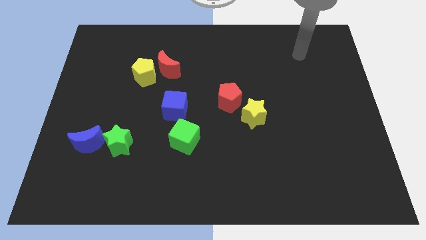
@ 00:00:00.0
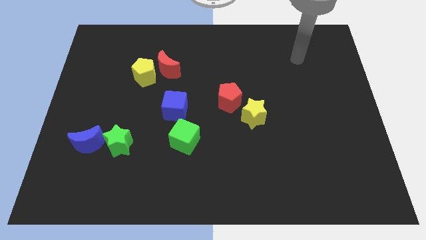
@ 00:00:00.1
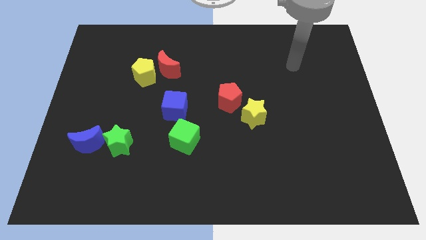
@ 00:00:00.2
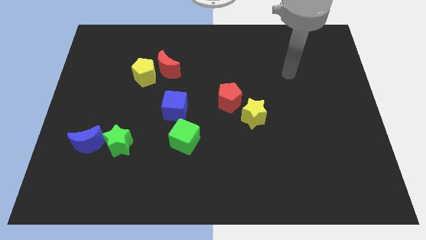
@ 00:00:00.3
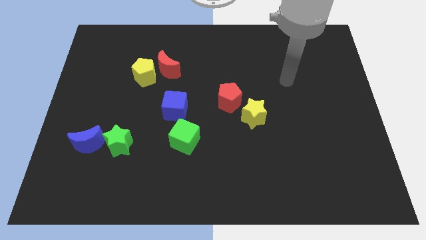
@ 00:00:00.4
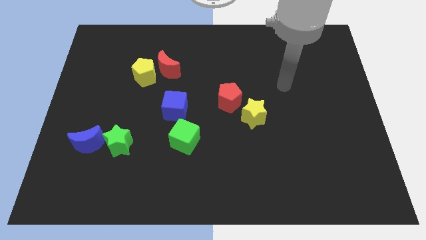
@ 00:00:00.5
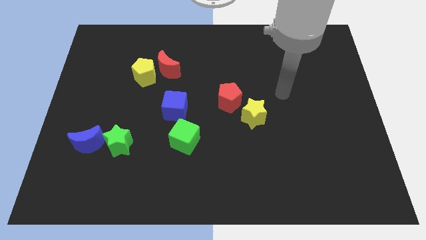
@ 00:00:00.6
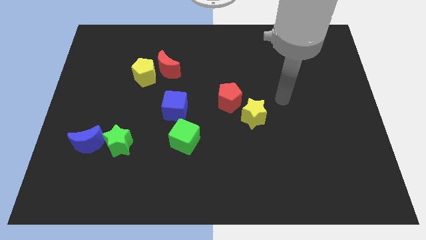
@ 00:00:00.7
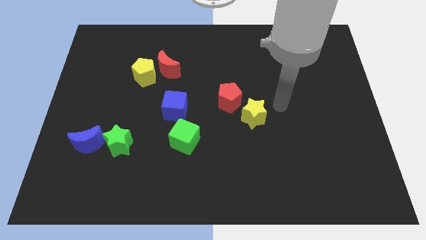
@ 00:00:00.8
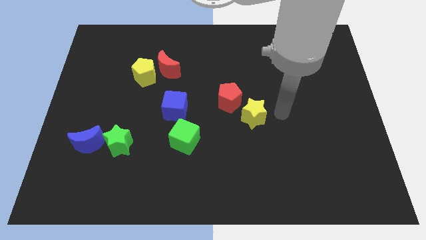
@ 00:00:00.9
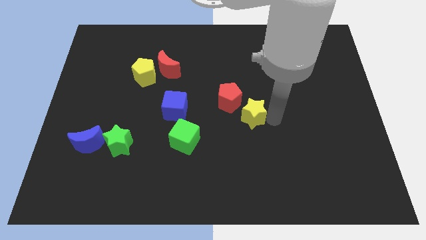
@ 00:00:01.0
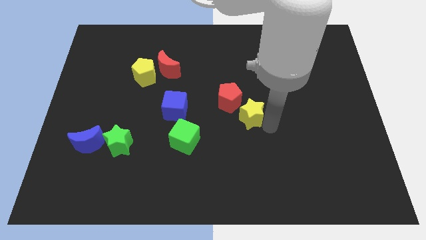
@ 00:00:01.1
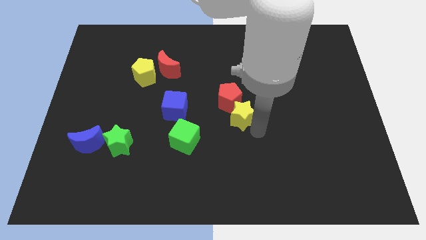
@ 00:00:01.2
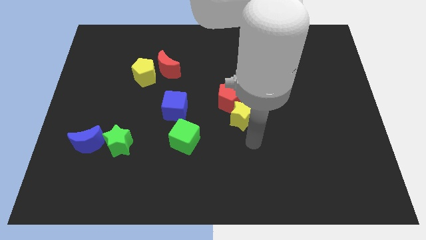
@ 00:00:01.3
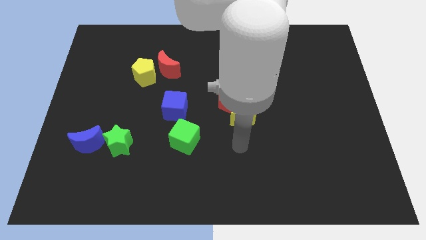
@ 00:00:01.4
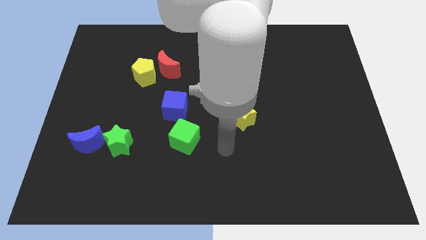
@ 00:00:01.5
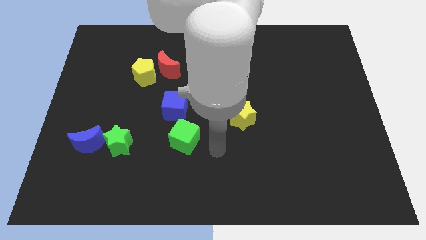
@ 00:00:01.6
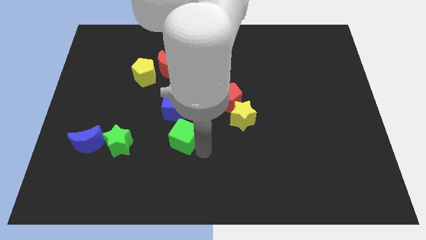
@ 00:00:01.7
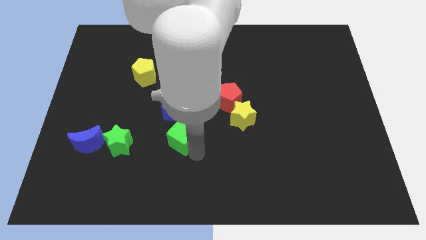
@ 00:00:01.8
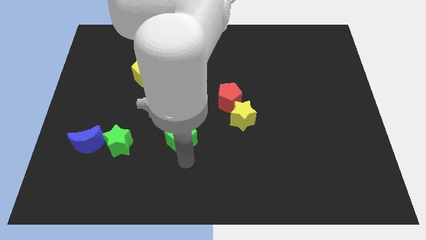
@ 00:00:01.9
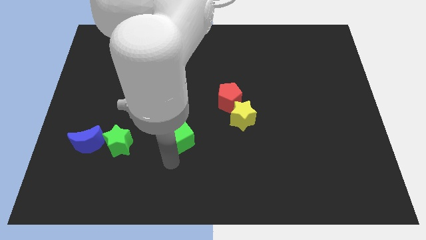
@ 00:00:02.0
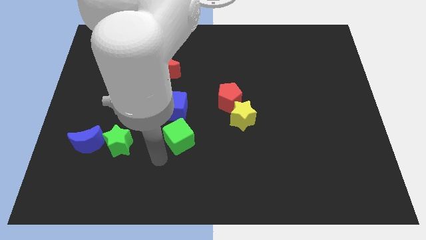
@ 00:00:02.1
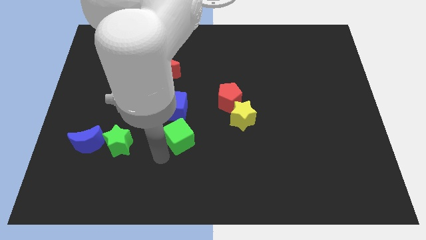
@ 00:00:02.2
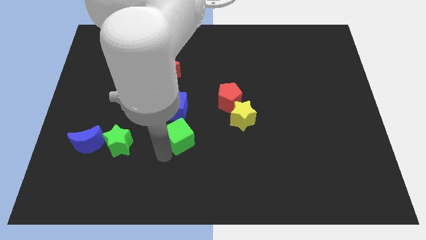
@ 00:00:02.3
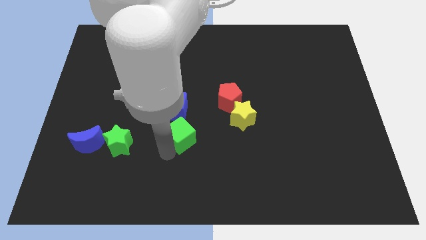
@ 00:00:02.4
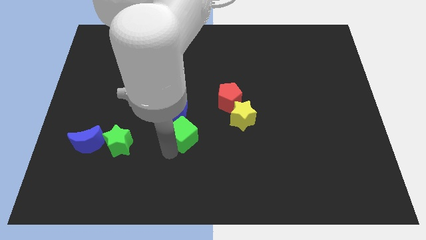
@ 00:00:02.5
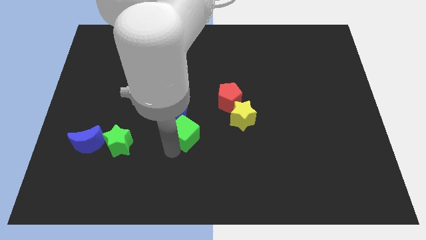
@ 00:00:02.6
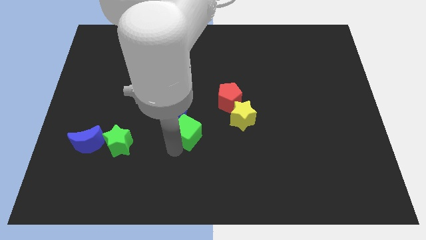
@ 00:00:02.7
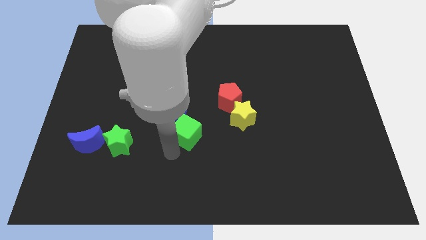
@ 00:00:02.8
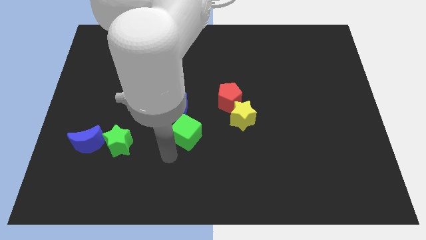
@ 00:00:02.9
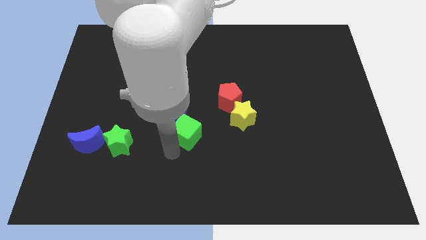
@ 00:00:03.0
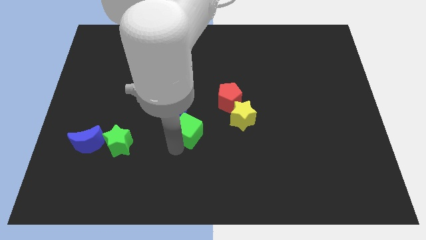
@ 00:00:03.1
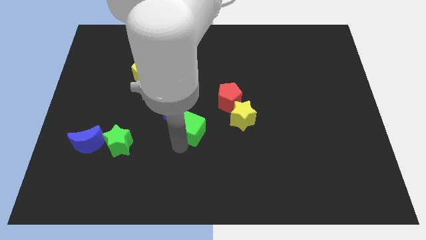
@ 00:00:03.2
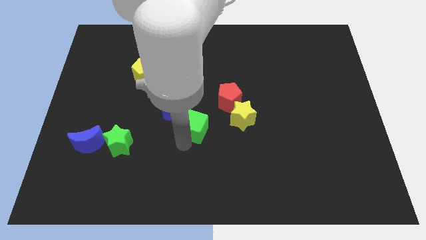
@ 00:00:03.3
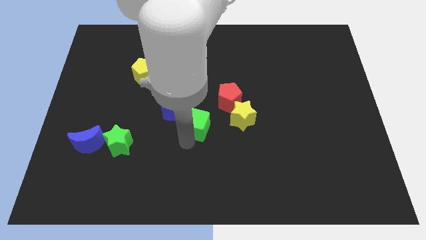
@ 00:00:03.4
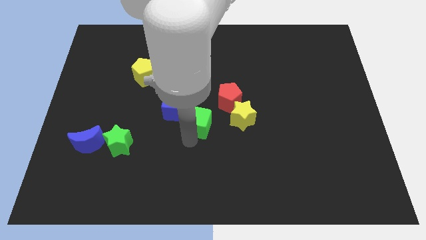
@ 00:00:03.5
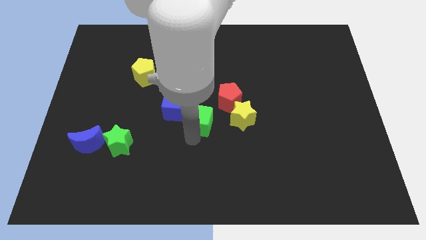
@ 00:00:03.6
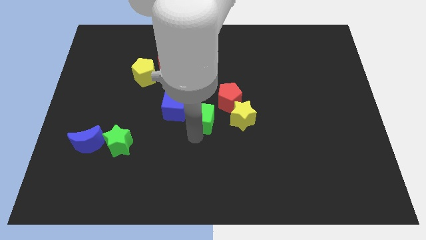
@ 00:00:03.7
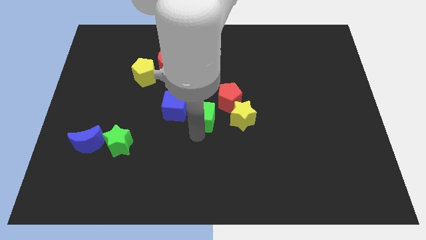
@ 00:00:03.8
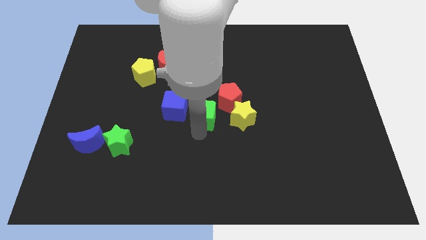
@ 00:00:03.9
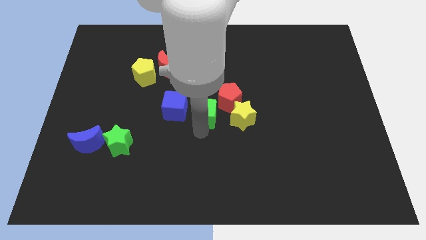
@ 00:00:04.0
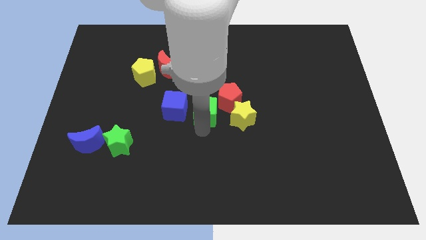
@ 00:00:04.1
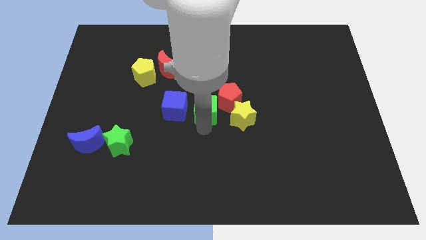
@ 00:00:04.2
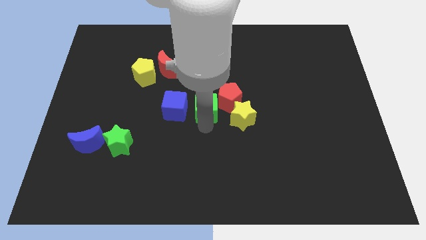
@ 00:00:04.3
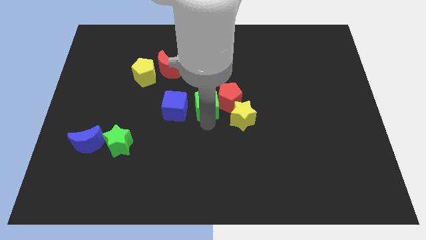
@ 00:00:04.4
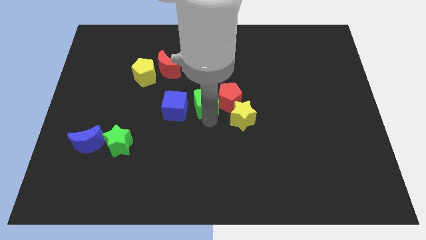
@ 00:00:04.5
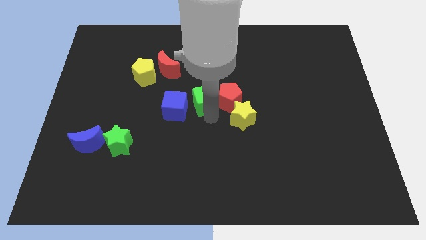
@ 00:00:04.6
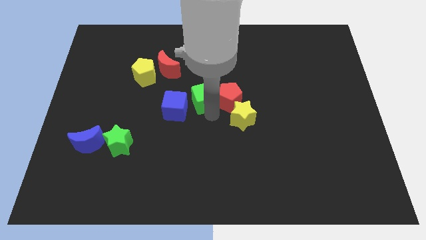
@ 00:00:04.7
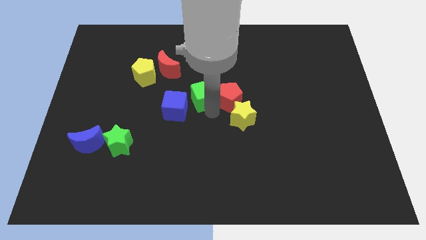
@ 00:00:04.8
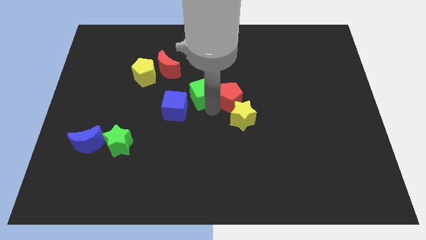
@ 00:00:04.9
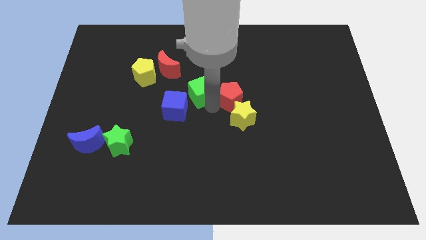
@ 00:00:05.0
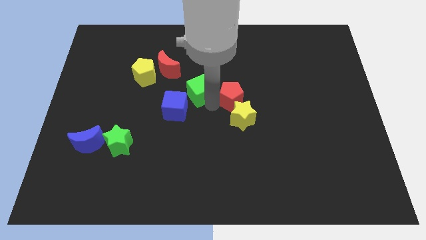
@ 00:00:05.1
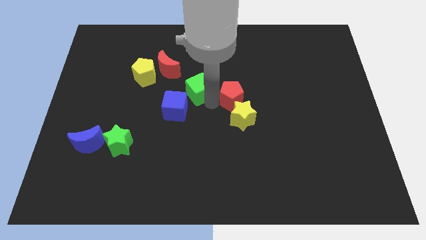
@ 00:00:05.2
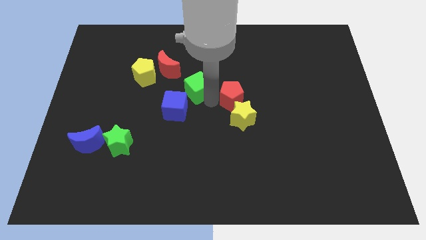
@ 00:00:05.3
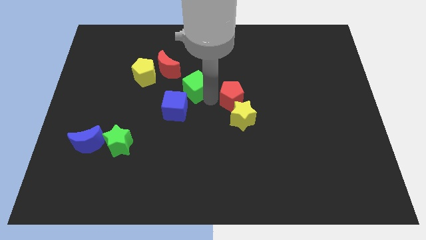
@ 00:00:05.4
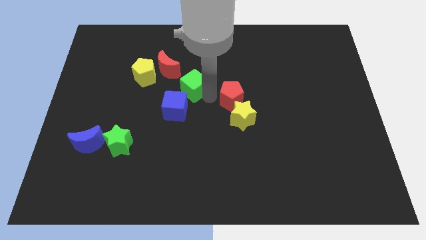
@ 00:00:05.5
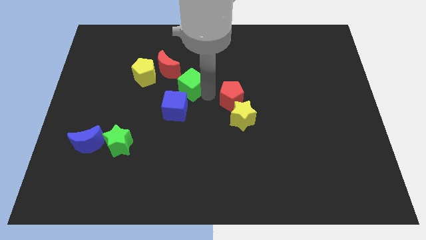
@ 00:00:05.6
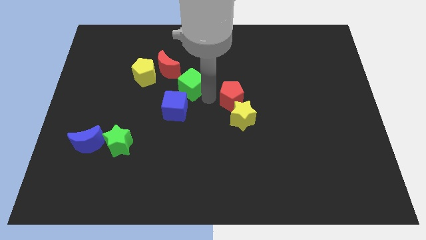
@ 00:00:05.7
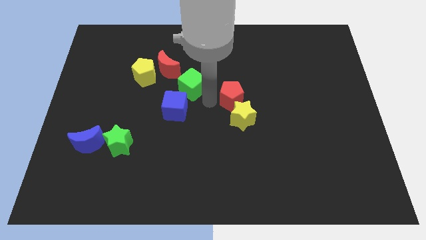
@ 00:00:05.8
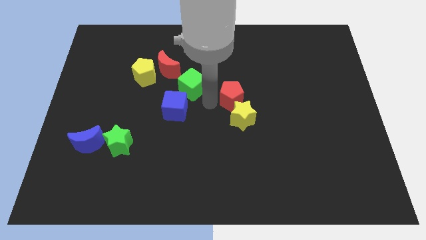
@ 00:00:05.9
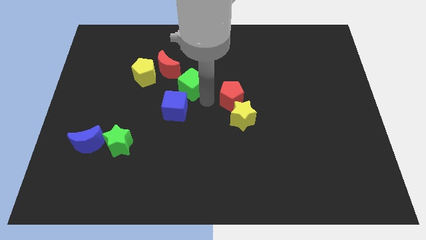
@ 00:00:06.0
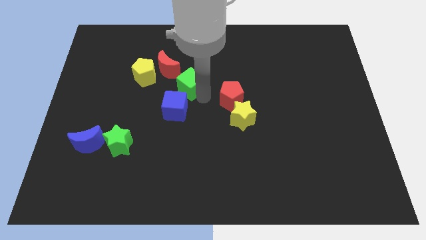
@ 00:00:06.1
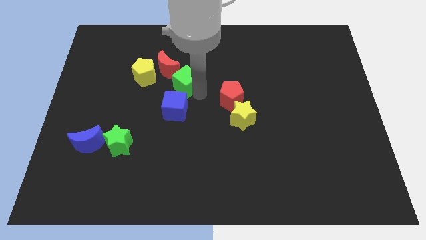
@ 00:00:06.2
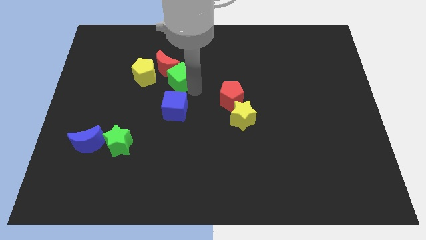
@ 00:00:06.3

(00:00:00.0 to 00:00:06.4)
move the green cube close to the red moon
